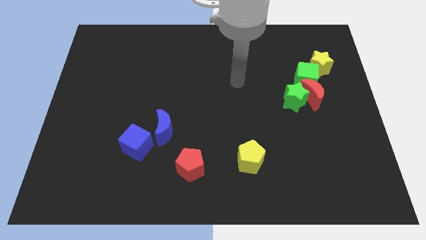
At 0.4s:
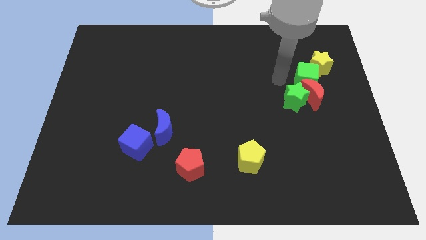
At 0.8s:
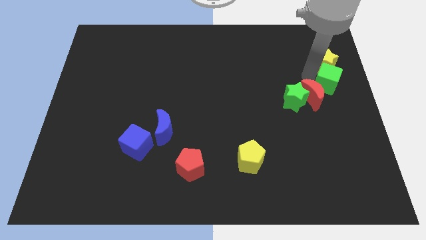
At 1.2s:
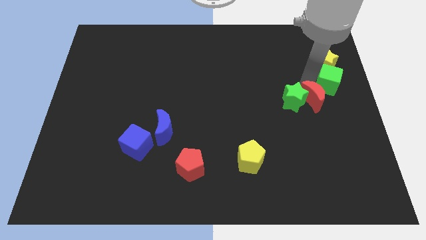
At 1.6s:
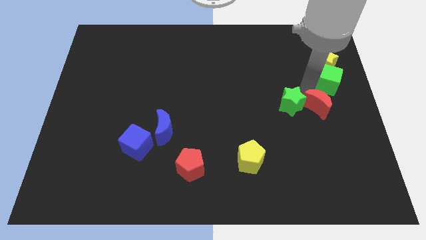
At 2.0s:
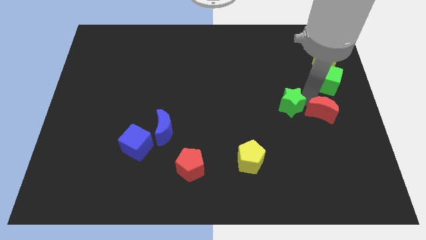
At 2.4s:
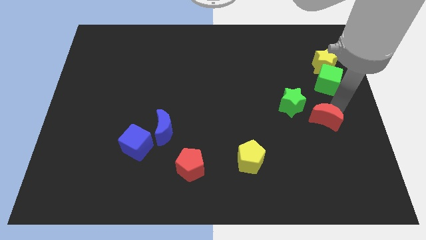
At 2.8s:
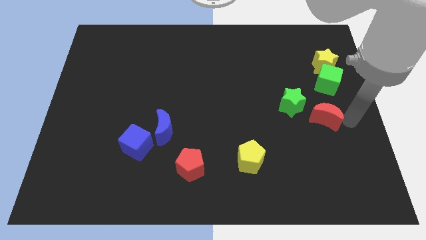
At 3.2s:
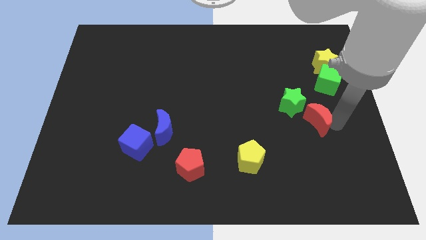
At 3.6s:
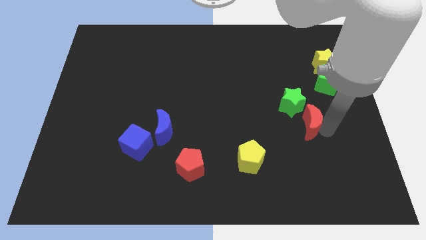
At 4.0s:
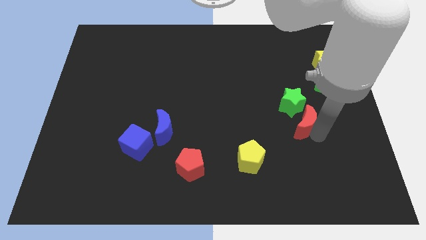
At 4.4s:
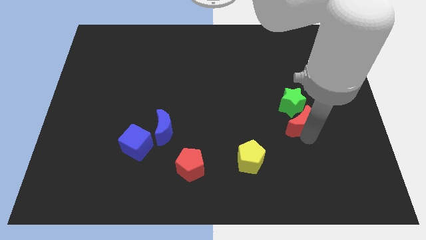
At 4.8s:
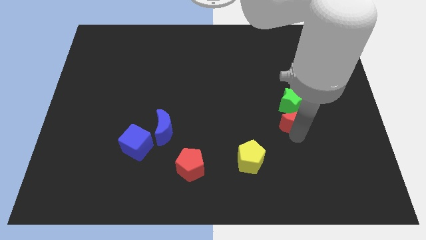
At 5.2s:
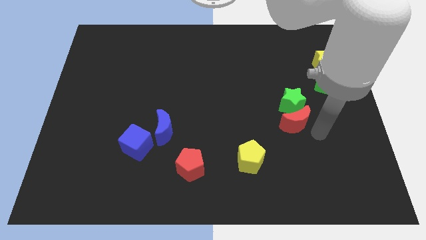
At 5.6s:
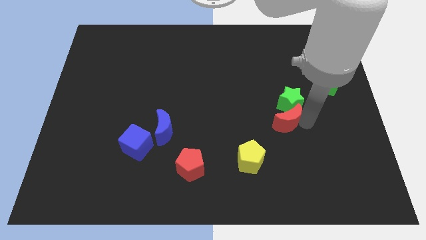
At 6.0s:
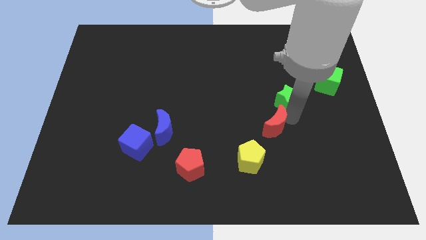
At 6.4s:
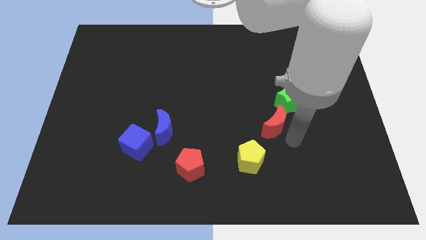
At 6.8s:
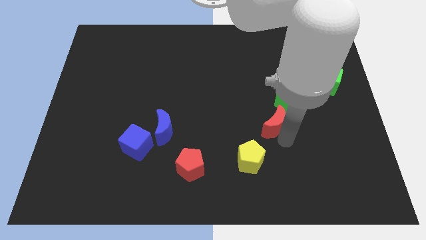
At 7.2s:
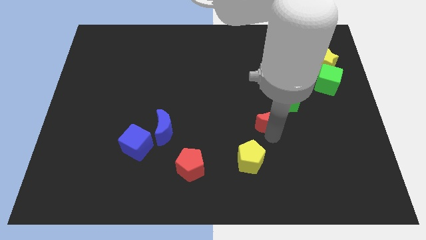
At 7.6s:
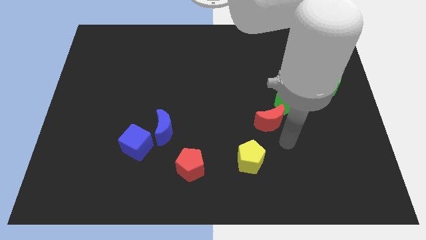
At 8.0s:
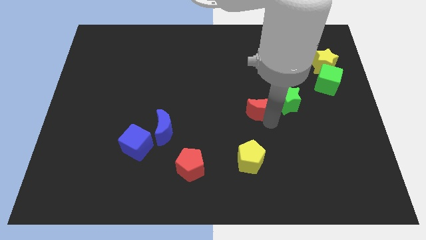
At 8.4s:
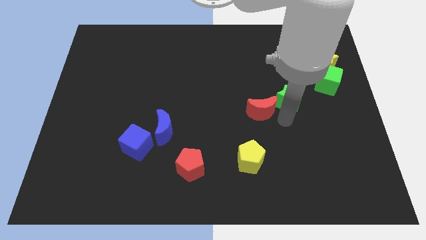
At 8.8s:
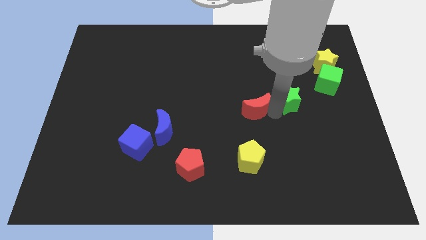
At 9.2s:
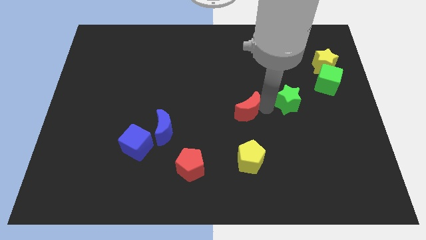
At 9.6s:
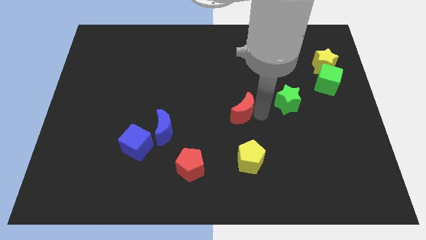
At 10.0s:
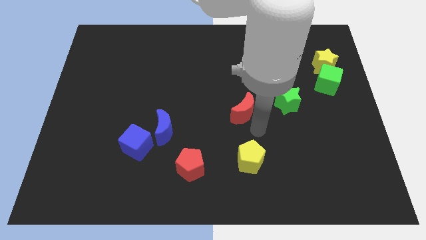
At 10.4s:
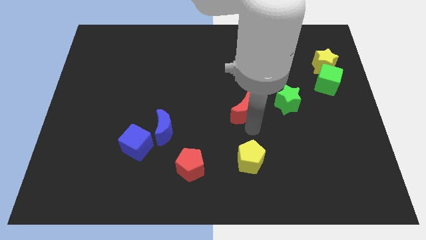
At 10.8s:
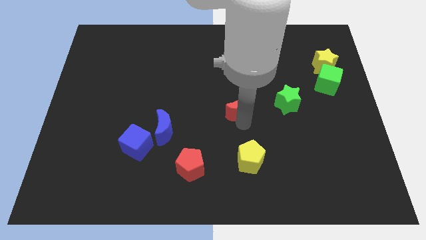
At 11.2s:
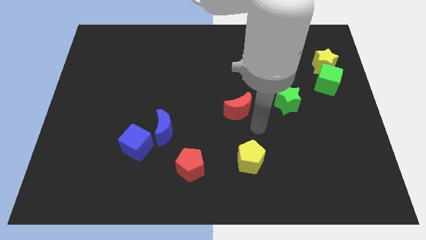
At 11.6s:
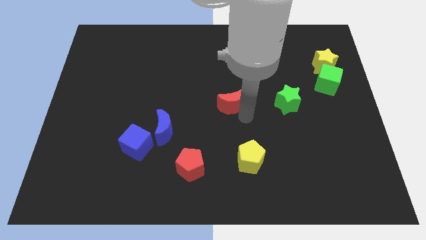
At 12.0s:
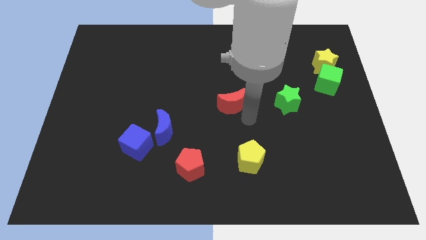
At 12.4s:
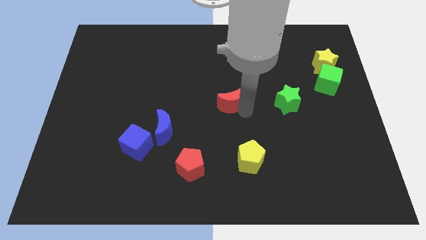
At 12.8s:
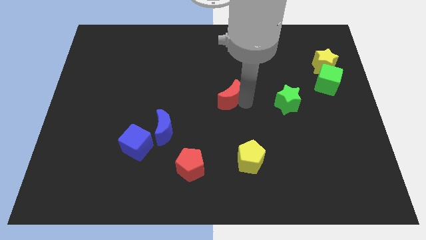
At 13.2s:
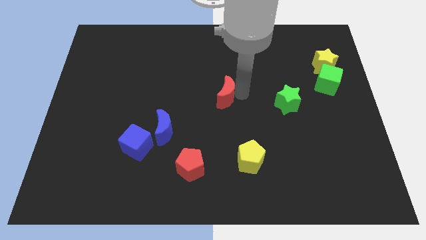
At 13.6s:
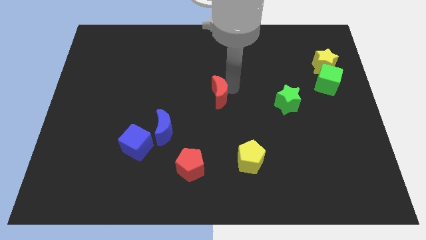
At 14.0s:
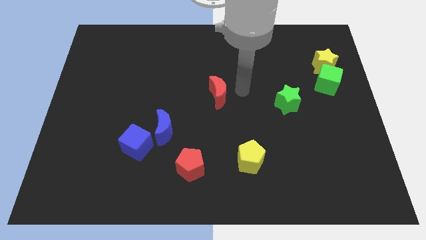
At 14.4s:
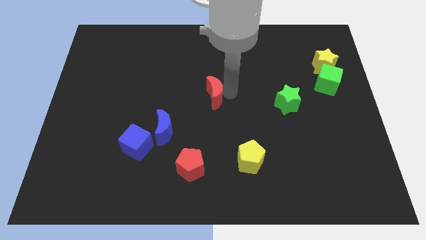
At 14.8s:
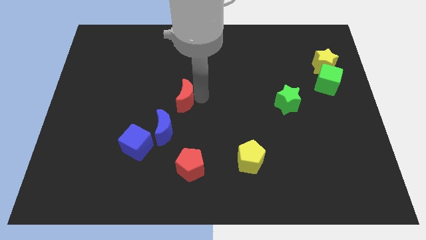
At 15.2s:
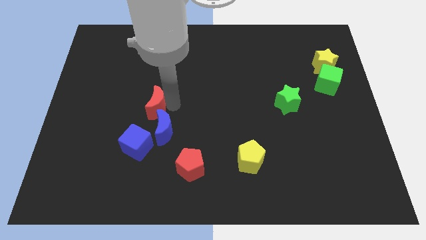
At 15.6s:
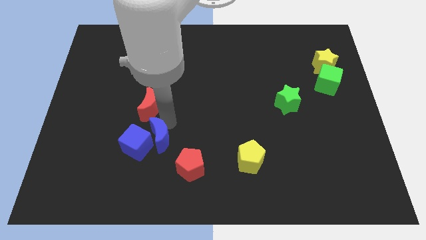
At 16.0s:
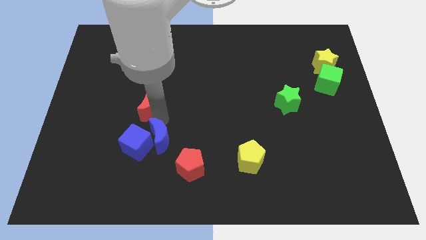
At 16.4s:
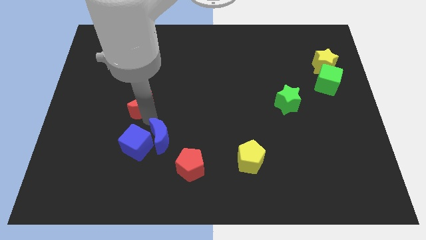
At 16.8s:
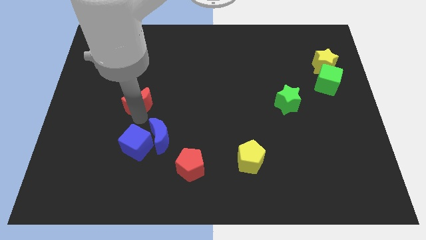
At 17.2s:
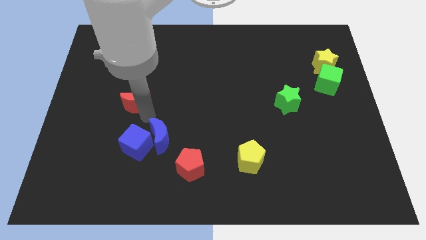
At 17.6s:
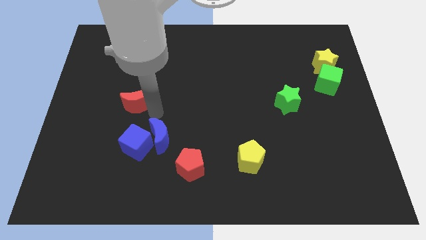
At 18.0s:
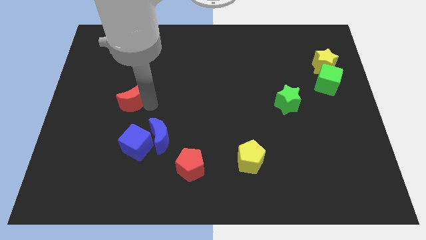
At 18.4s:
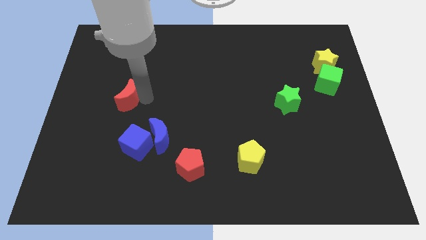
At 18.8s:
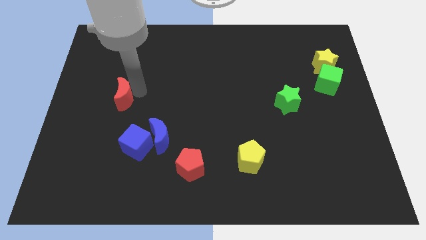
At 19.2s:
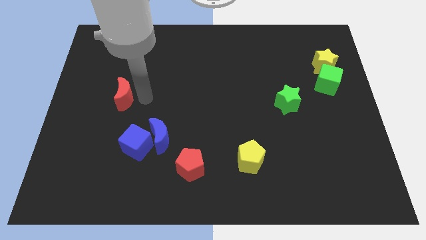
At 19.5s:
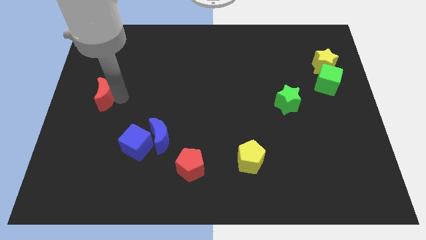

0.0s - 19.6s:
slide the red moon to the left side

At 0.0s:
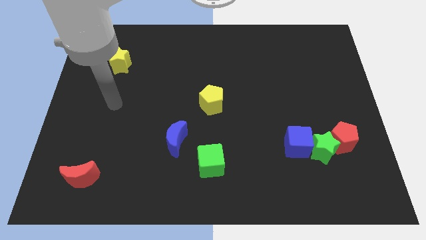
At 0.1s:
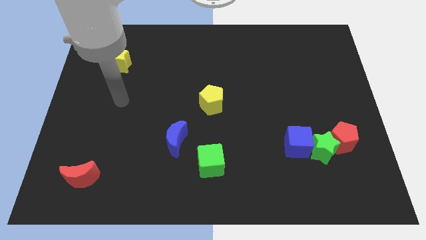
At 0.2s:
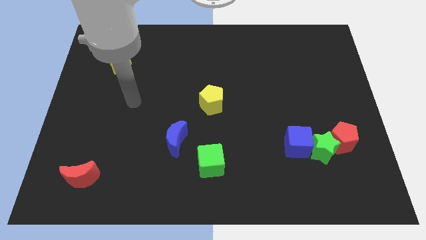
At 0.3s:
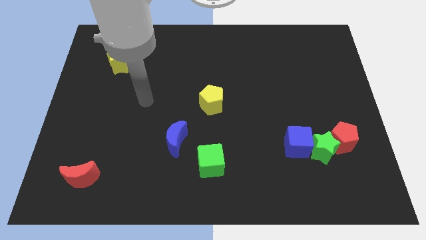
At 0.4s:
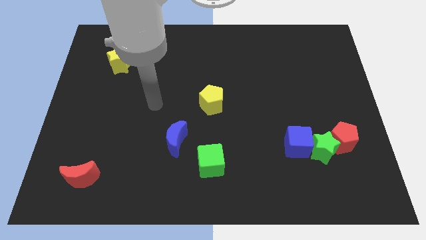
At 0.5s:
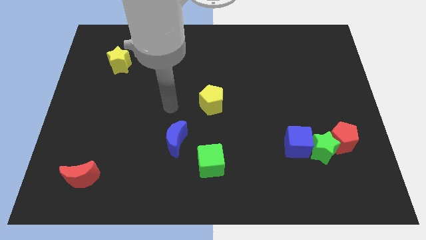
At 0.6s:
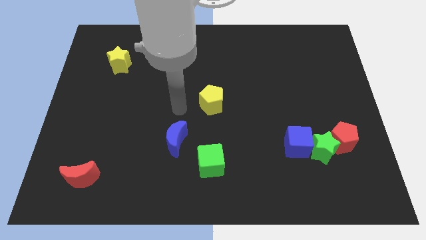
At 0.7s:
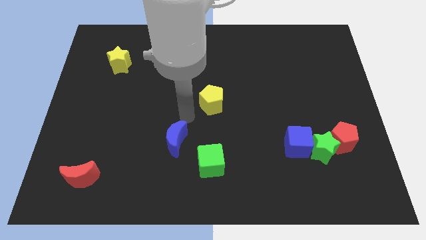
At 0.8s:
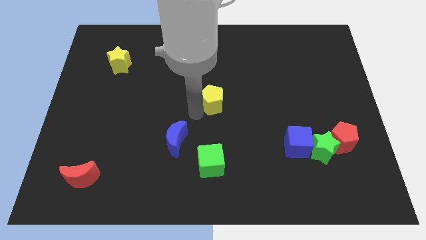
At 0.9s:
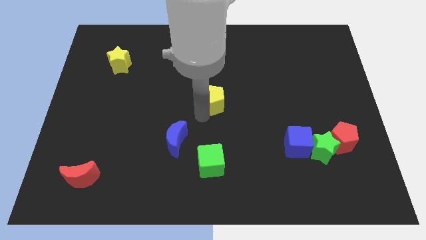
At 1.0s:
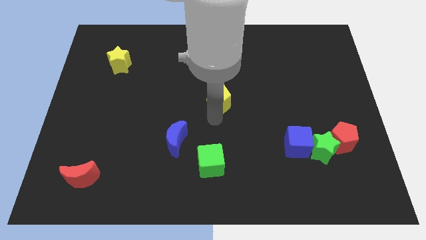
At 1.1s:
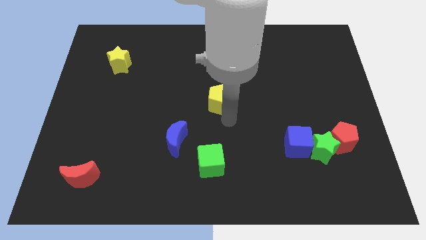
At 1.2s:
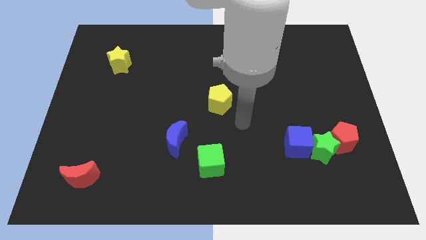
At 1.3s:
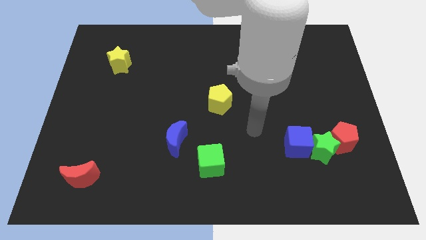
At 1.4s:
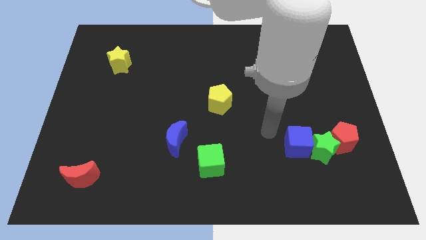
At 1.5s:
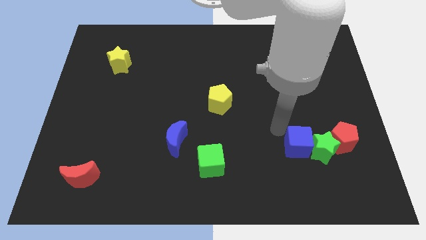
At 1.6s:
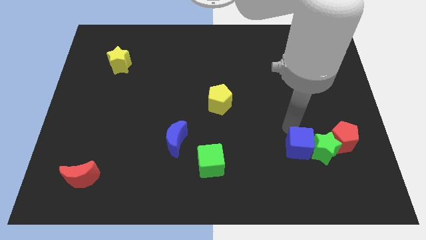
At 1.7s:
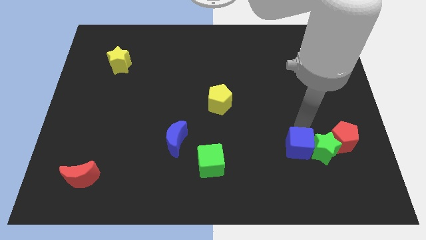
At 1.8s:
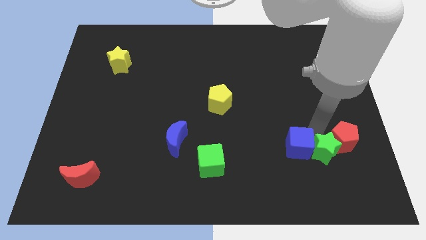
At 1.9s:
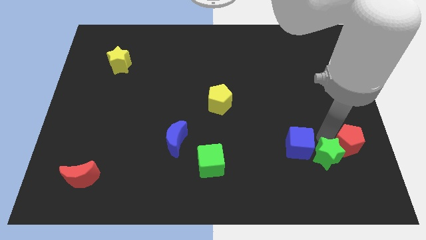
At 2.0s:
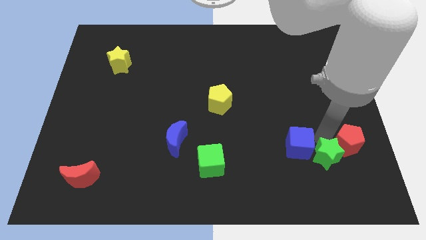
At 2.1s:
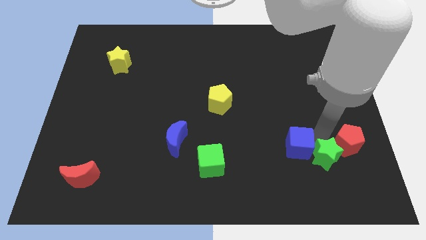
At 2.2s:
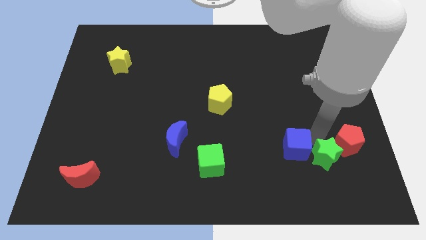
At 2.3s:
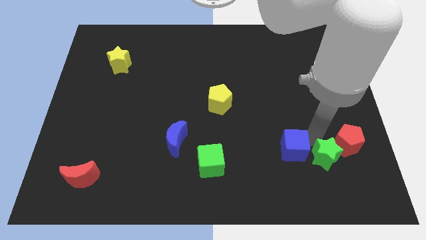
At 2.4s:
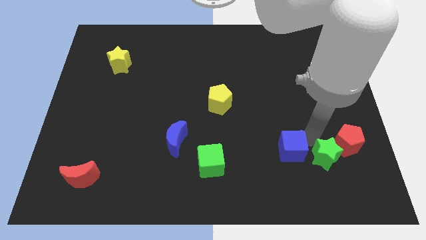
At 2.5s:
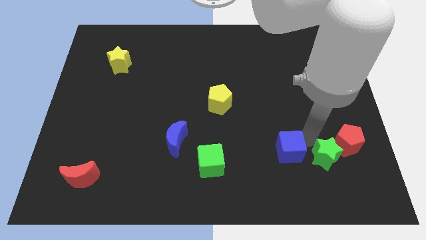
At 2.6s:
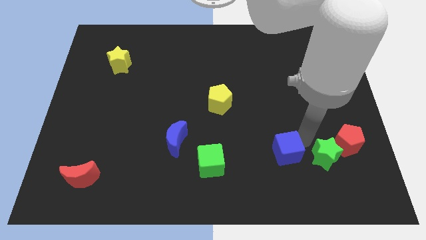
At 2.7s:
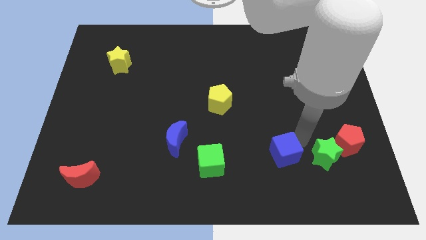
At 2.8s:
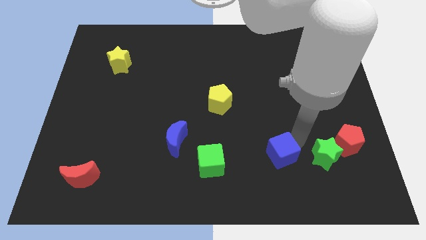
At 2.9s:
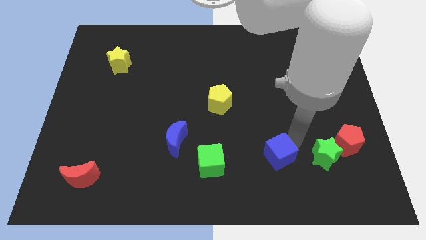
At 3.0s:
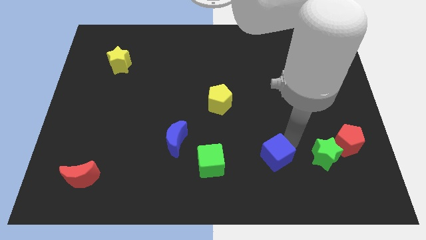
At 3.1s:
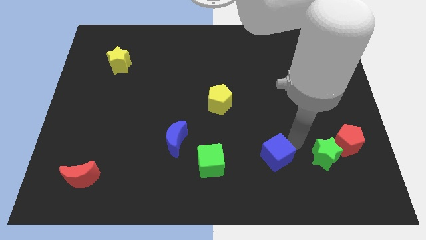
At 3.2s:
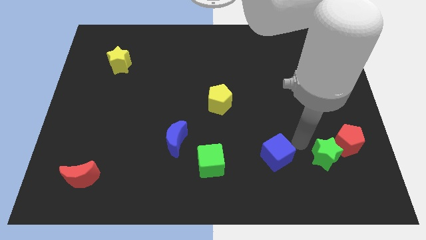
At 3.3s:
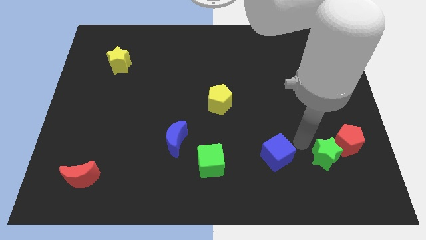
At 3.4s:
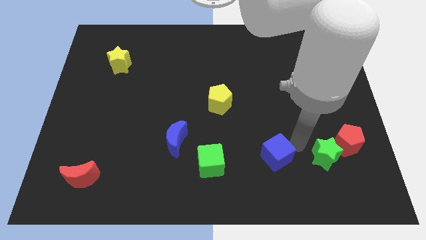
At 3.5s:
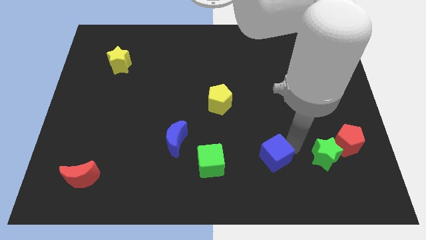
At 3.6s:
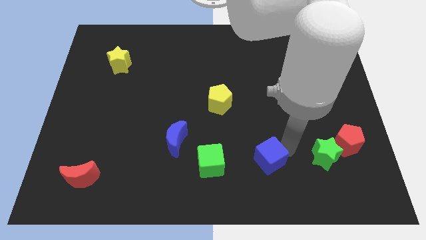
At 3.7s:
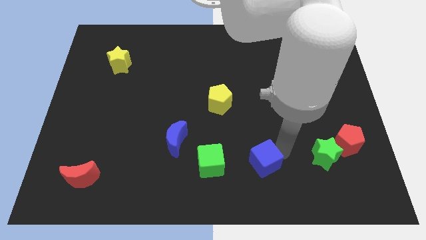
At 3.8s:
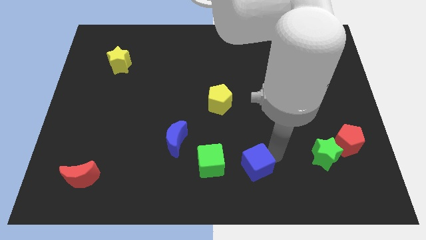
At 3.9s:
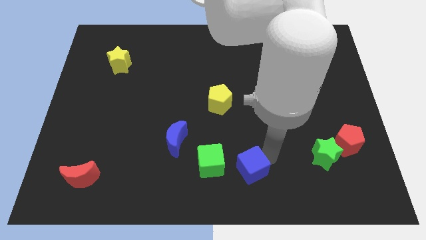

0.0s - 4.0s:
slide the blue cube to the bottom side
